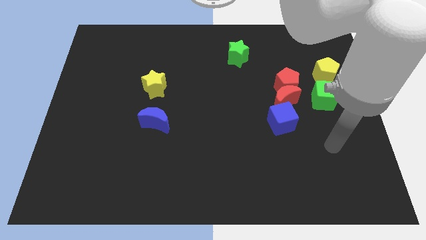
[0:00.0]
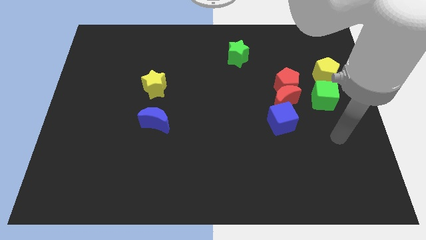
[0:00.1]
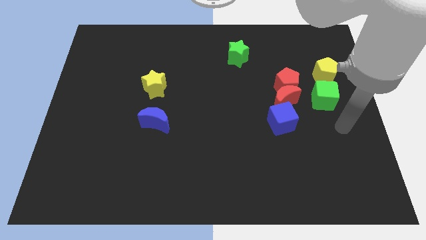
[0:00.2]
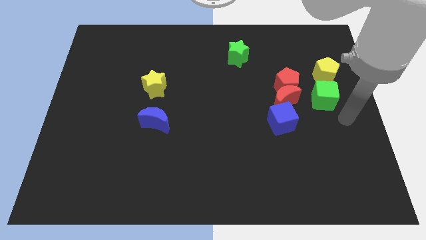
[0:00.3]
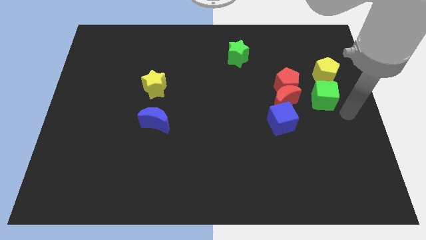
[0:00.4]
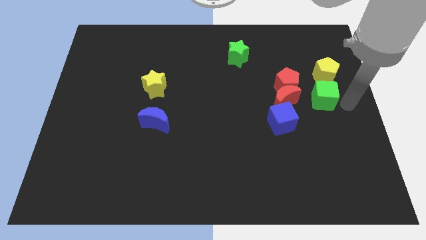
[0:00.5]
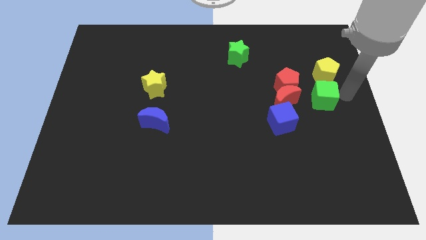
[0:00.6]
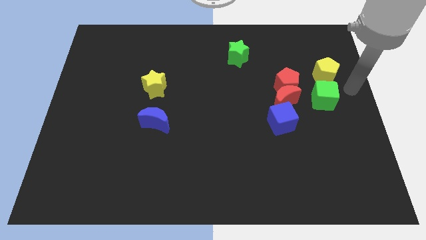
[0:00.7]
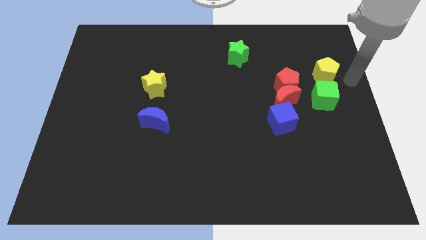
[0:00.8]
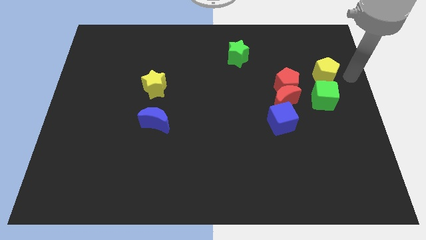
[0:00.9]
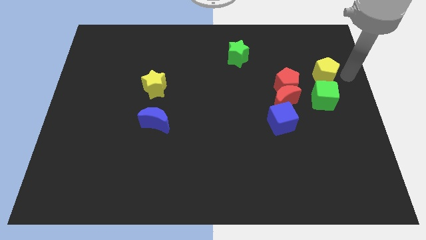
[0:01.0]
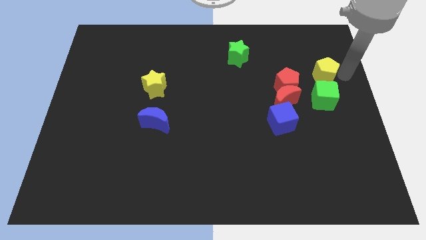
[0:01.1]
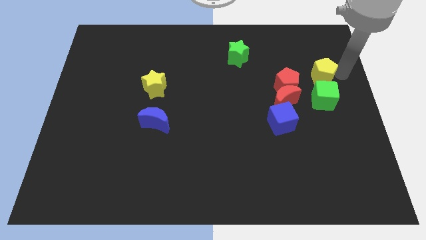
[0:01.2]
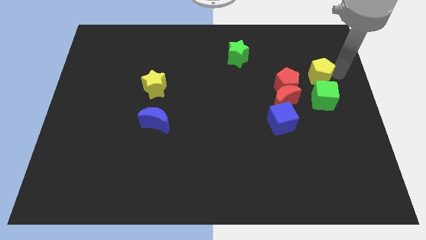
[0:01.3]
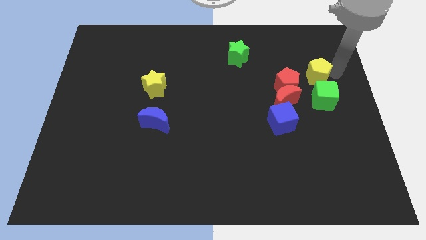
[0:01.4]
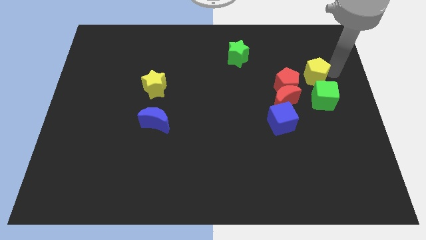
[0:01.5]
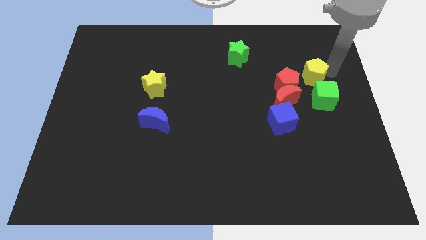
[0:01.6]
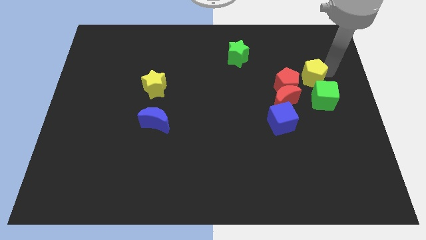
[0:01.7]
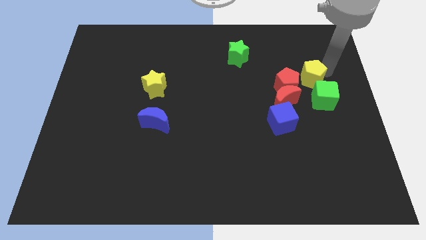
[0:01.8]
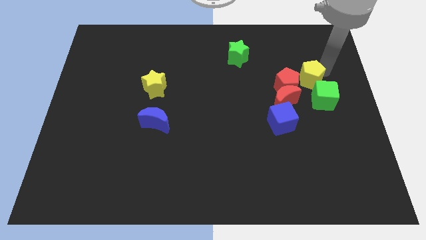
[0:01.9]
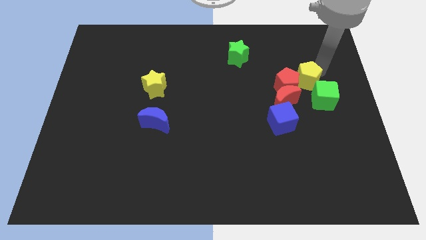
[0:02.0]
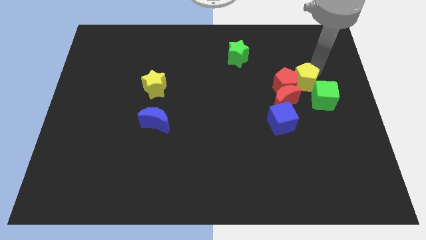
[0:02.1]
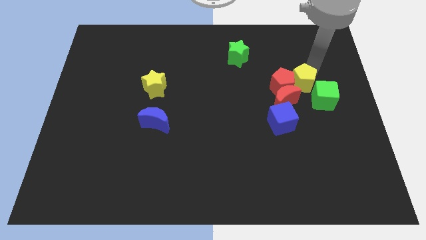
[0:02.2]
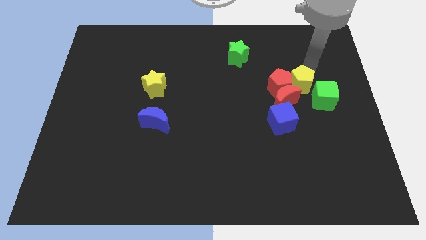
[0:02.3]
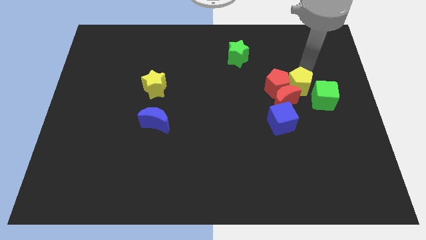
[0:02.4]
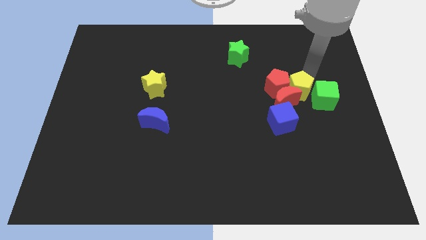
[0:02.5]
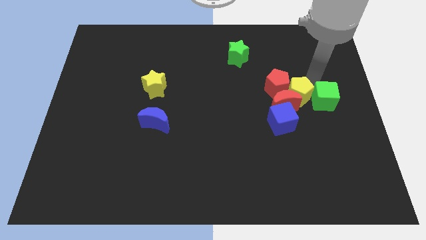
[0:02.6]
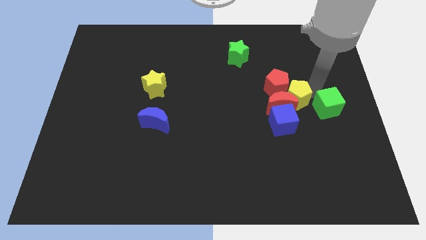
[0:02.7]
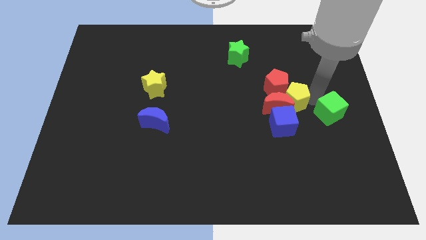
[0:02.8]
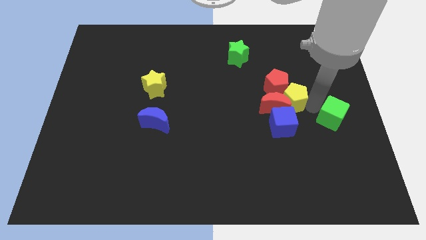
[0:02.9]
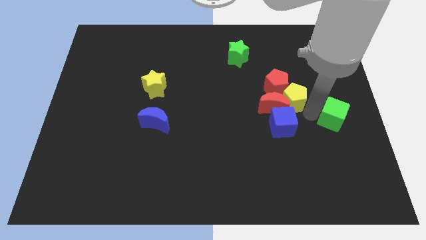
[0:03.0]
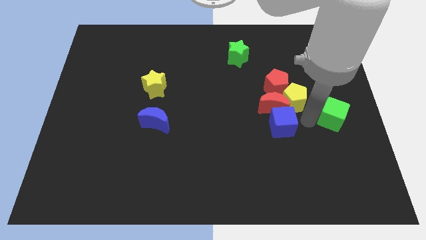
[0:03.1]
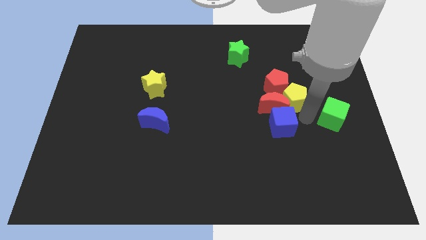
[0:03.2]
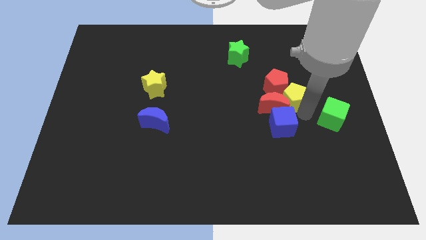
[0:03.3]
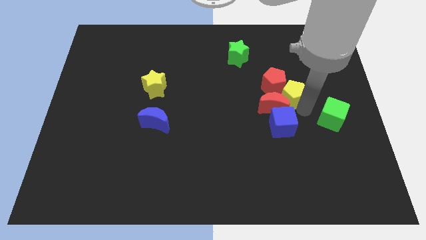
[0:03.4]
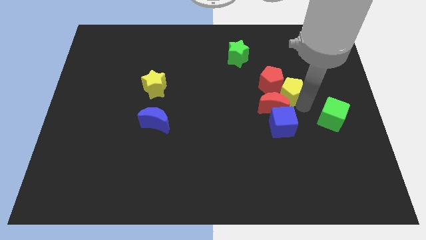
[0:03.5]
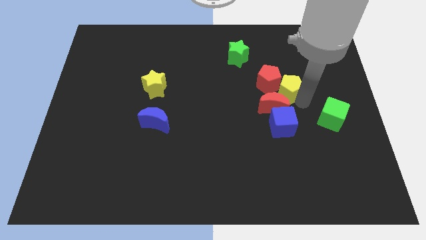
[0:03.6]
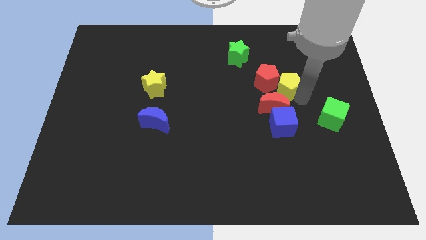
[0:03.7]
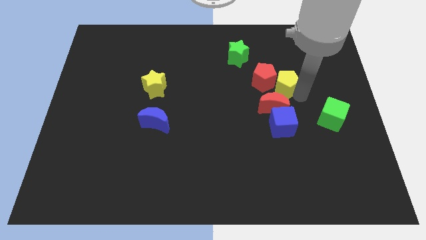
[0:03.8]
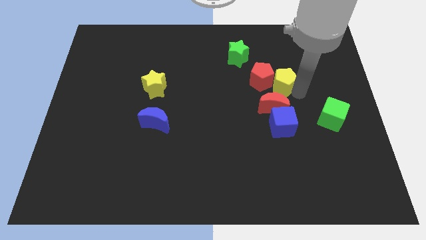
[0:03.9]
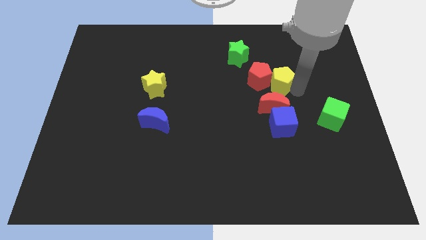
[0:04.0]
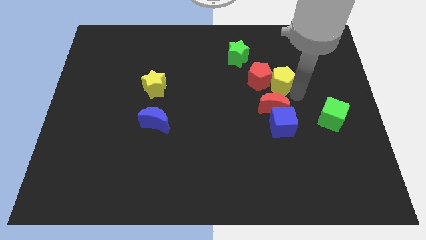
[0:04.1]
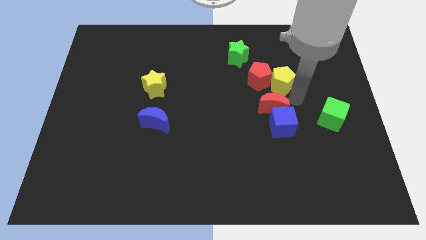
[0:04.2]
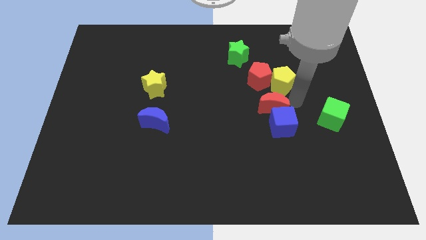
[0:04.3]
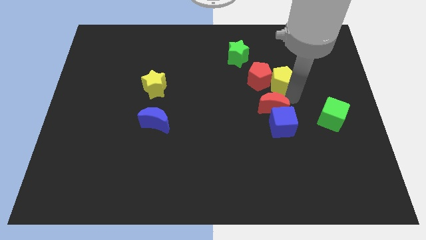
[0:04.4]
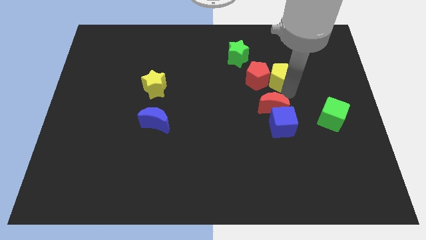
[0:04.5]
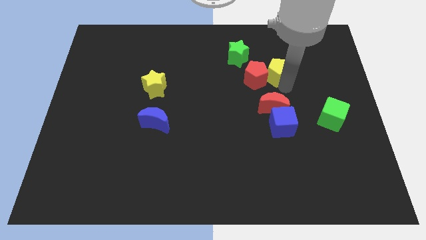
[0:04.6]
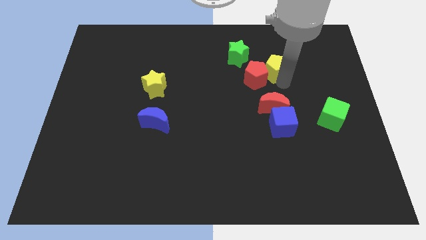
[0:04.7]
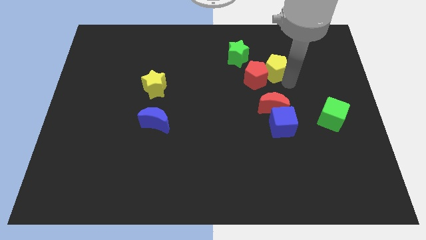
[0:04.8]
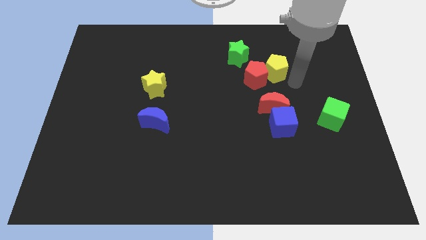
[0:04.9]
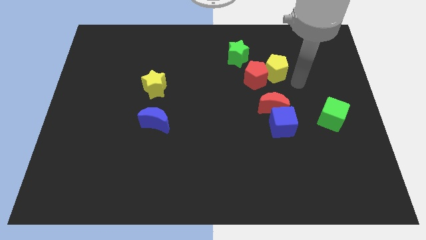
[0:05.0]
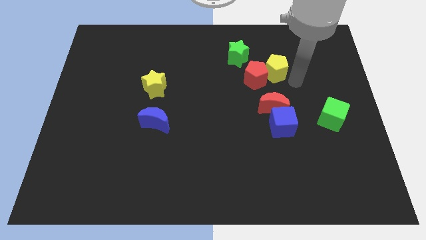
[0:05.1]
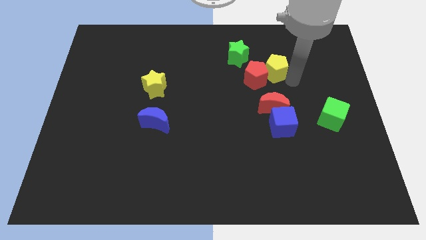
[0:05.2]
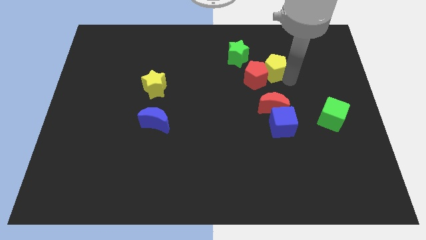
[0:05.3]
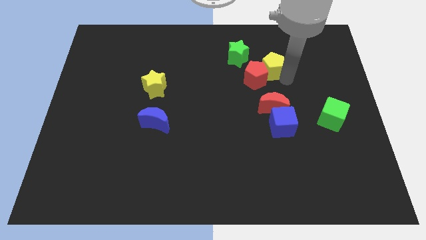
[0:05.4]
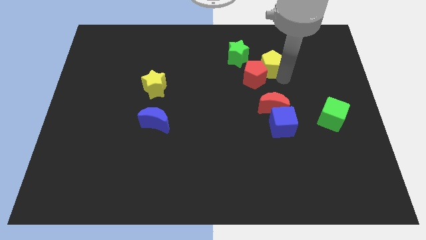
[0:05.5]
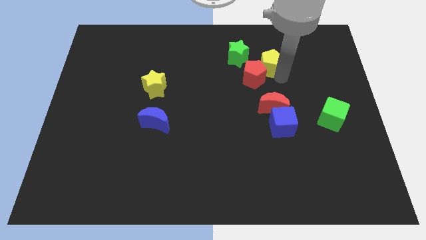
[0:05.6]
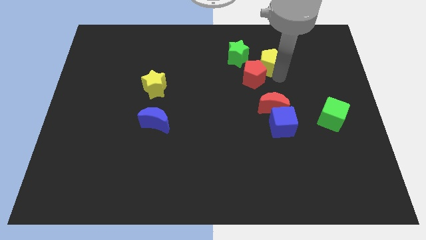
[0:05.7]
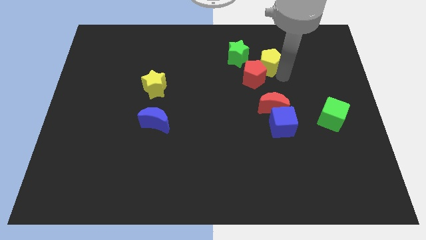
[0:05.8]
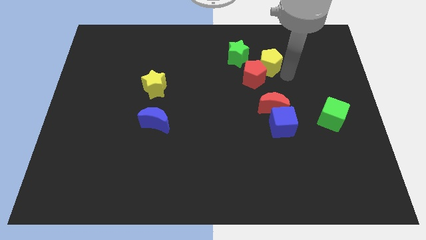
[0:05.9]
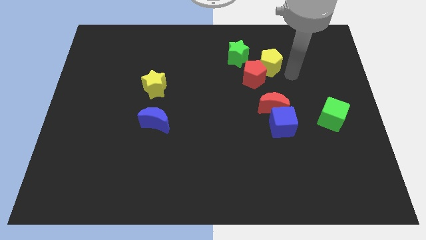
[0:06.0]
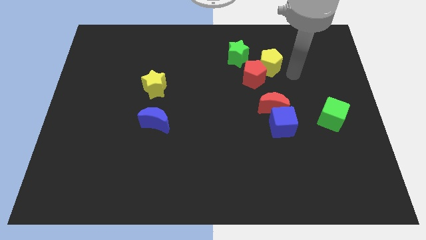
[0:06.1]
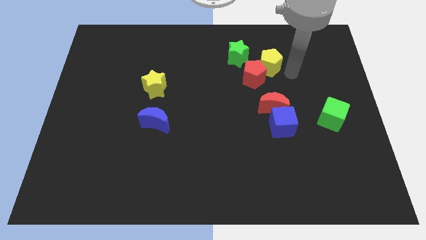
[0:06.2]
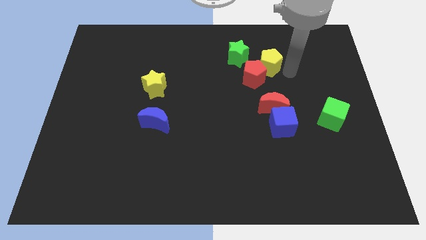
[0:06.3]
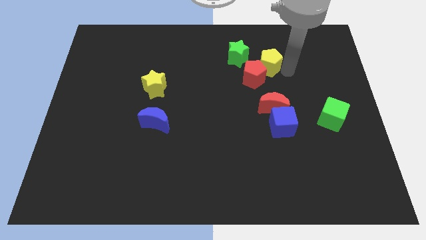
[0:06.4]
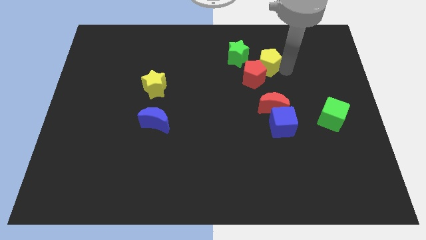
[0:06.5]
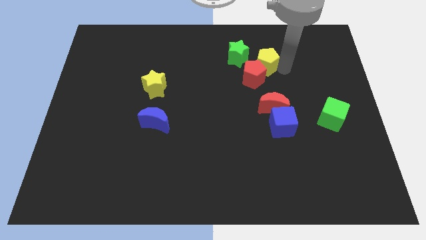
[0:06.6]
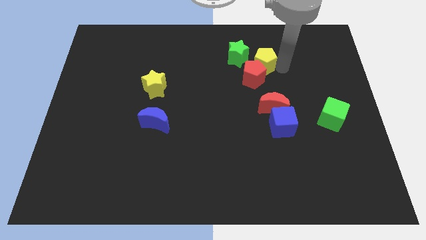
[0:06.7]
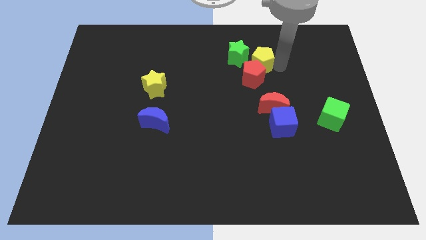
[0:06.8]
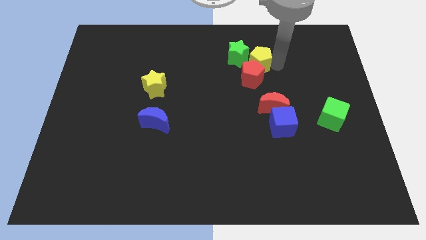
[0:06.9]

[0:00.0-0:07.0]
move the yellow pentagon next to the green star

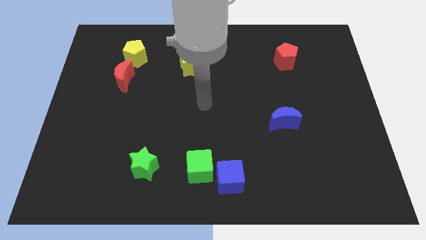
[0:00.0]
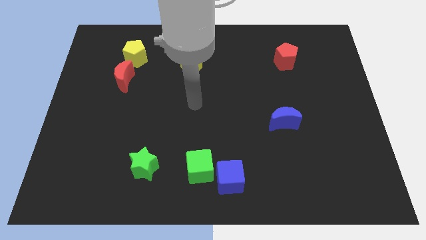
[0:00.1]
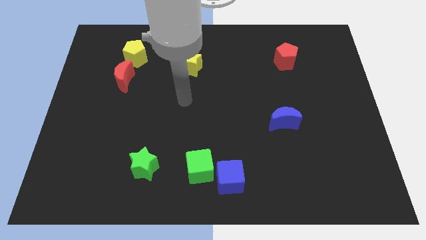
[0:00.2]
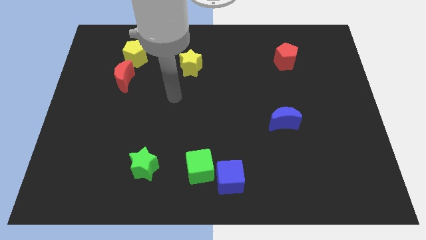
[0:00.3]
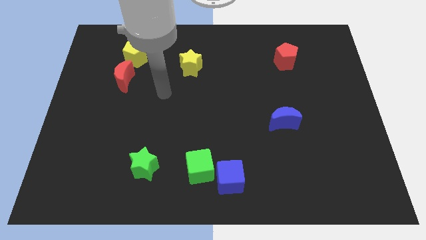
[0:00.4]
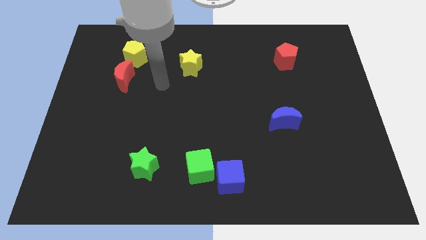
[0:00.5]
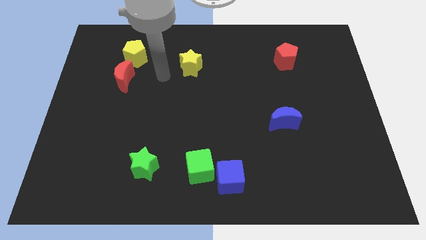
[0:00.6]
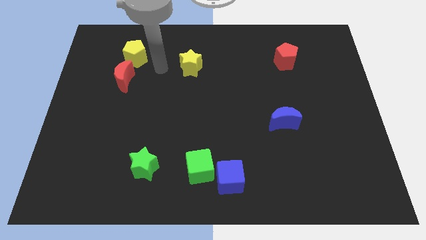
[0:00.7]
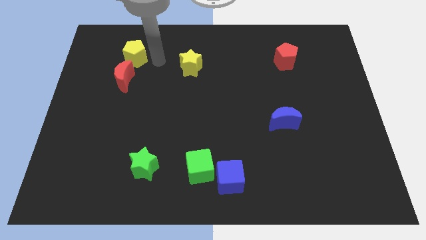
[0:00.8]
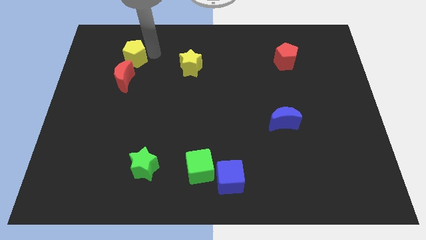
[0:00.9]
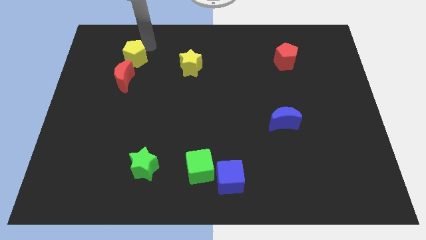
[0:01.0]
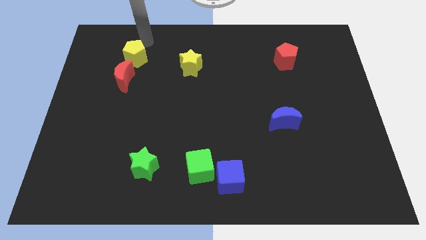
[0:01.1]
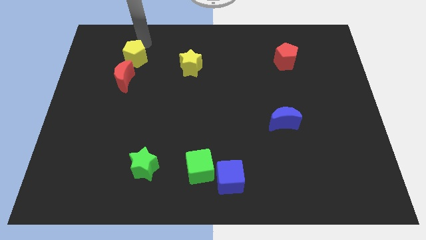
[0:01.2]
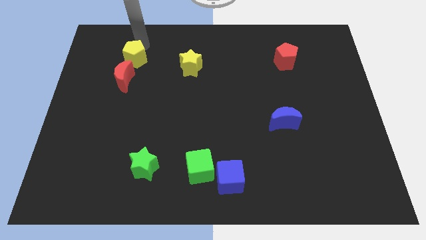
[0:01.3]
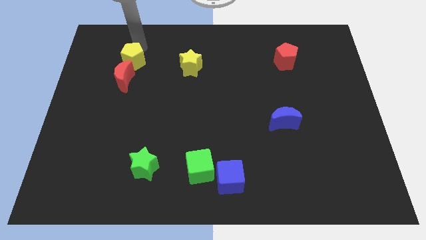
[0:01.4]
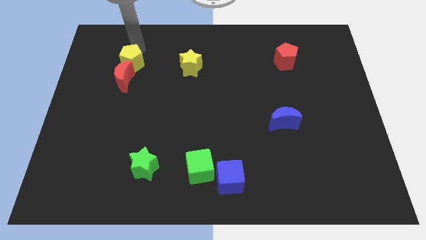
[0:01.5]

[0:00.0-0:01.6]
slide the yellow pentagon towards the red moon
